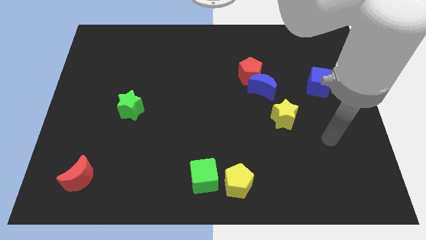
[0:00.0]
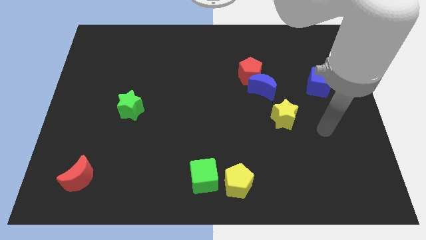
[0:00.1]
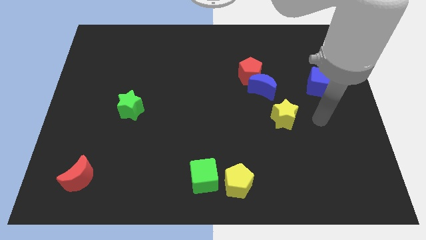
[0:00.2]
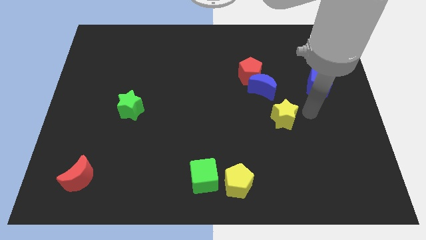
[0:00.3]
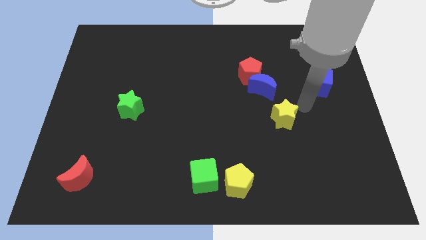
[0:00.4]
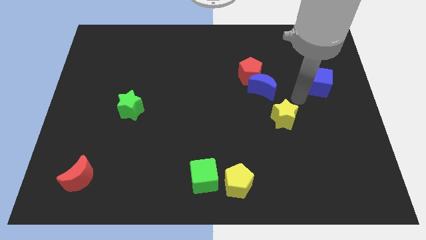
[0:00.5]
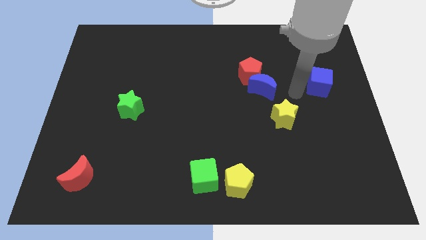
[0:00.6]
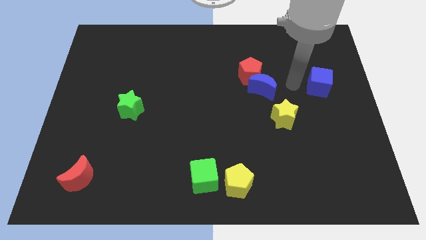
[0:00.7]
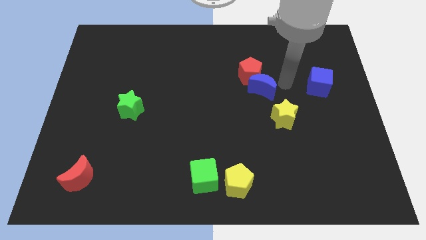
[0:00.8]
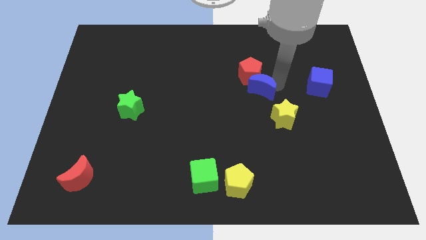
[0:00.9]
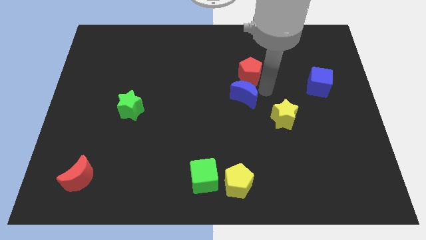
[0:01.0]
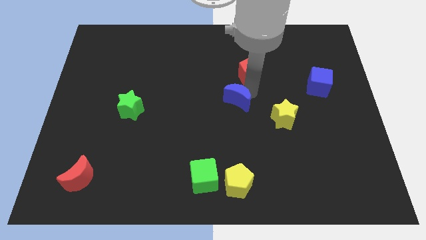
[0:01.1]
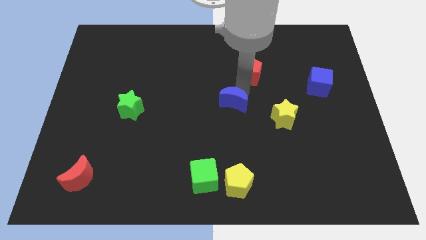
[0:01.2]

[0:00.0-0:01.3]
move the red pentagon away from the blue moon

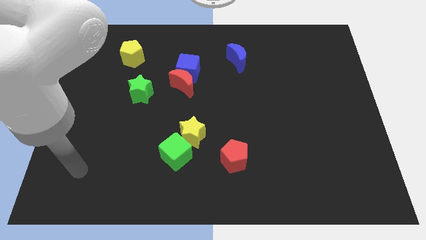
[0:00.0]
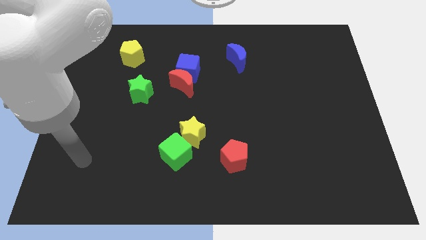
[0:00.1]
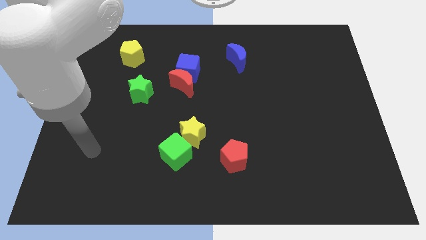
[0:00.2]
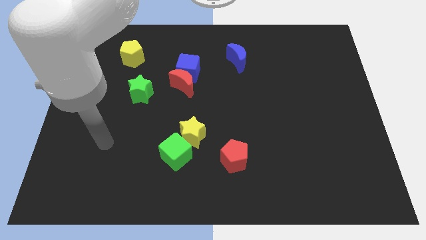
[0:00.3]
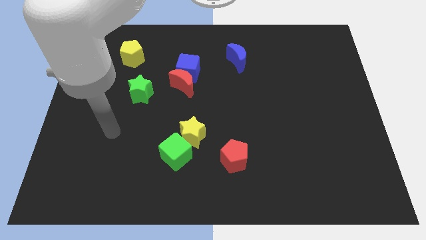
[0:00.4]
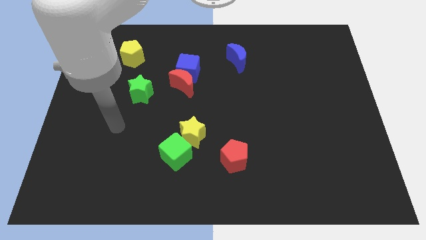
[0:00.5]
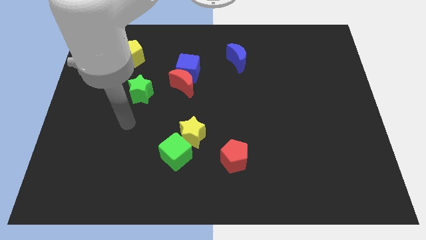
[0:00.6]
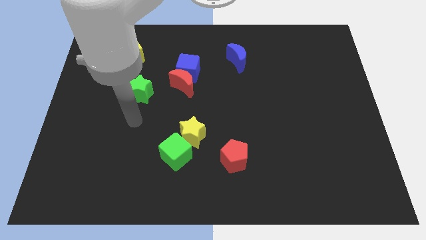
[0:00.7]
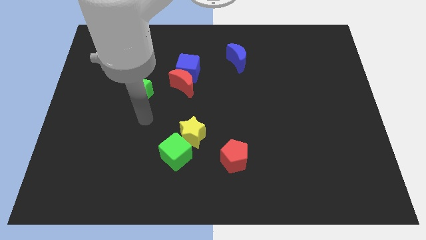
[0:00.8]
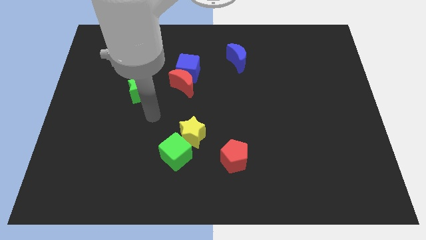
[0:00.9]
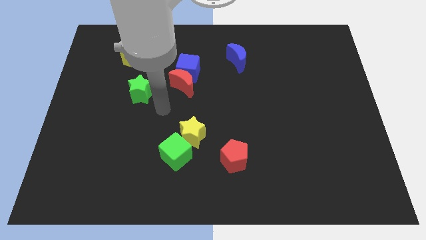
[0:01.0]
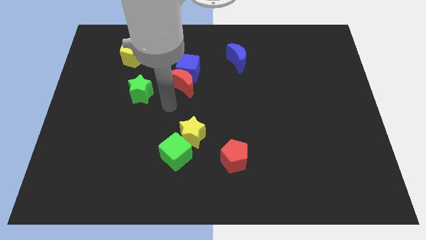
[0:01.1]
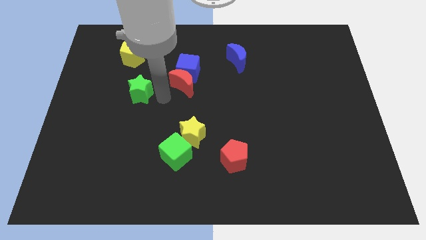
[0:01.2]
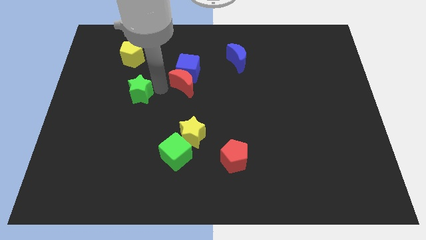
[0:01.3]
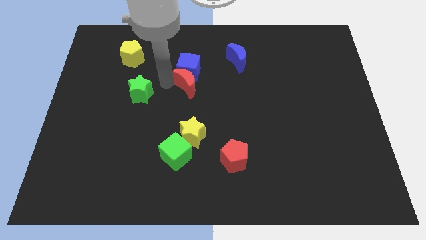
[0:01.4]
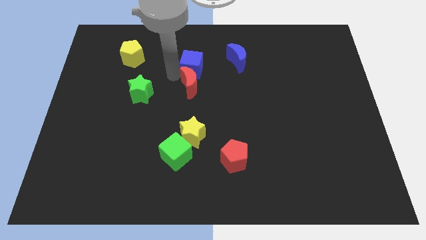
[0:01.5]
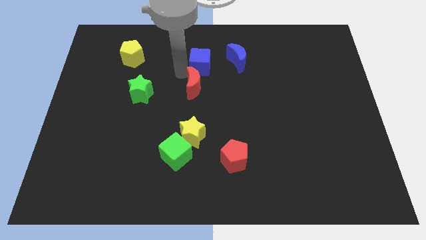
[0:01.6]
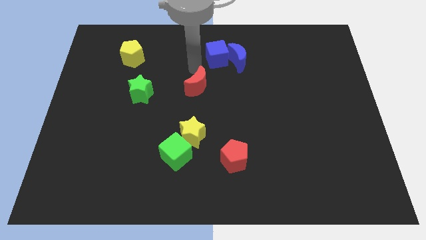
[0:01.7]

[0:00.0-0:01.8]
pull the red moon apart from the blue cube

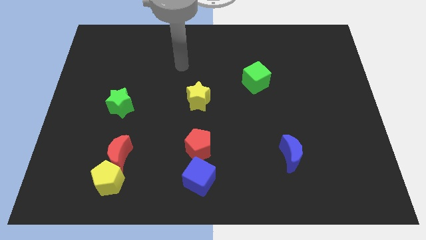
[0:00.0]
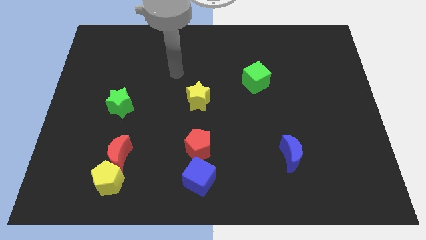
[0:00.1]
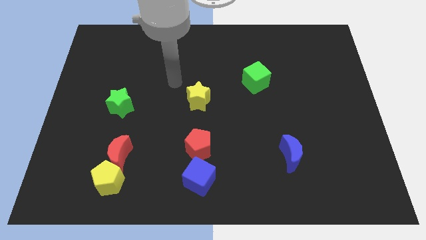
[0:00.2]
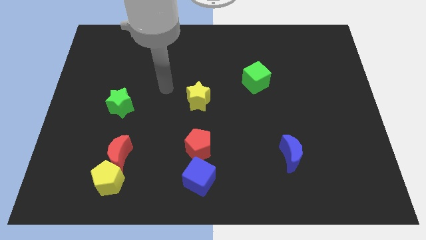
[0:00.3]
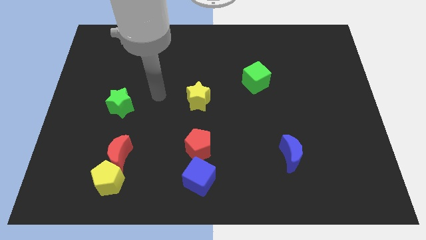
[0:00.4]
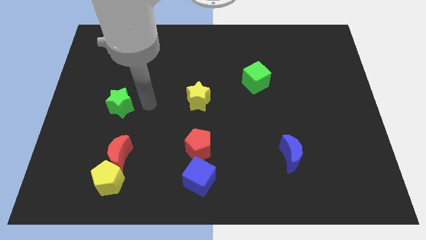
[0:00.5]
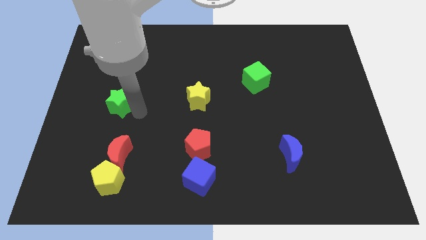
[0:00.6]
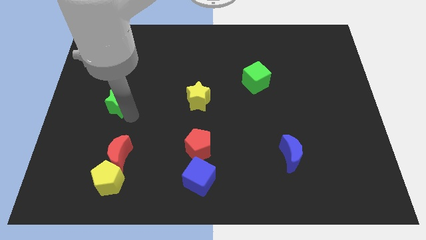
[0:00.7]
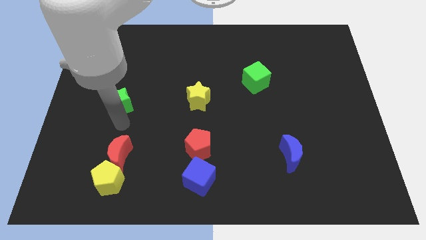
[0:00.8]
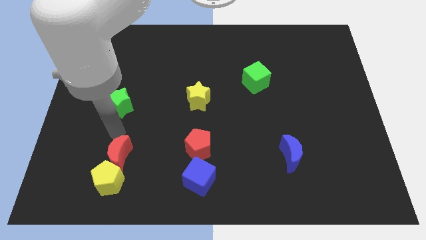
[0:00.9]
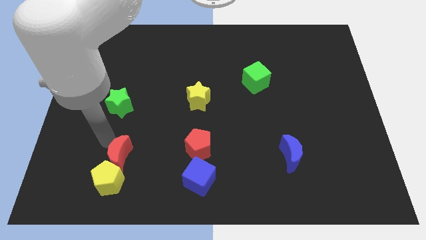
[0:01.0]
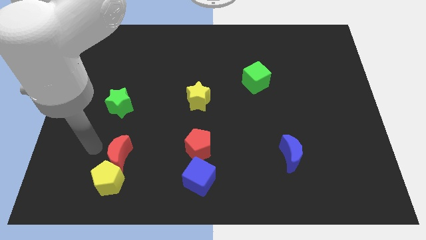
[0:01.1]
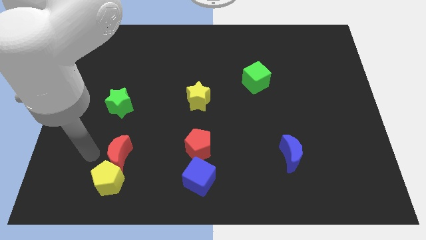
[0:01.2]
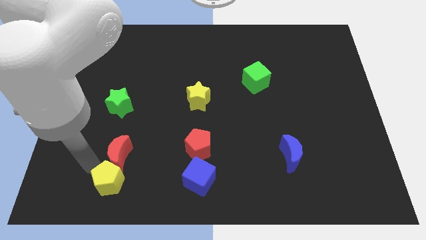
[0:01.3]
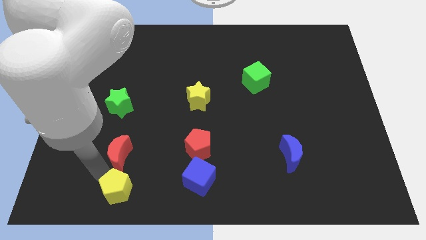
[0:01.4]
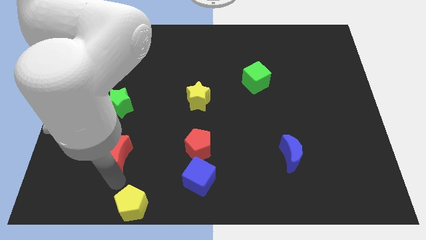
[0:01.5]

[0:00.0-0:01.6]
separate the red moon from the yellow pentagon

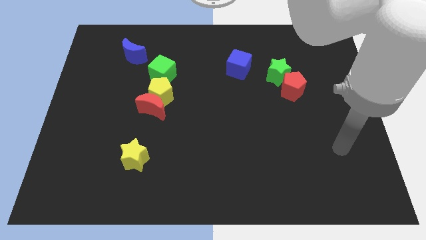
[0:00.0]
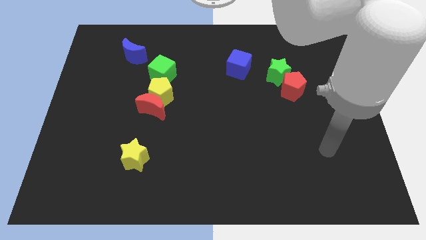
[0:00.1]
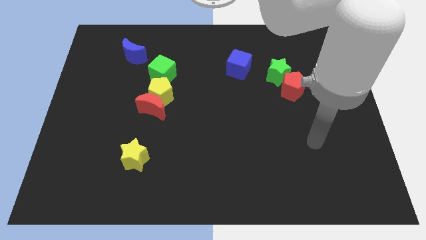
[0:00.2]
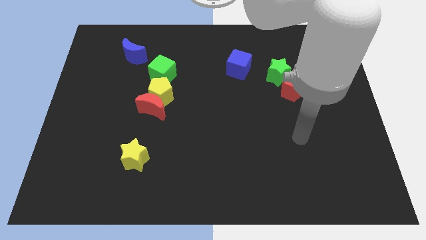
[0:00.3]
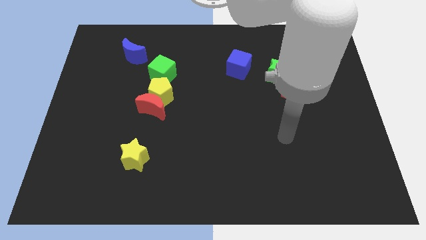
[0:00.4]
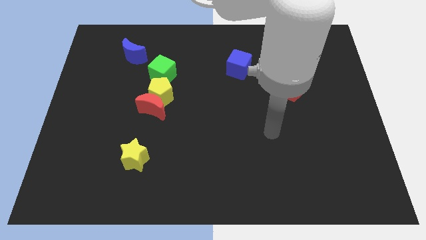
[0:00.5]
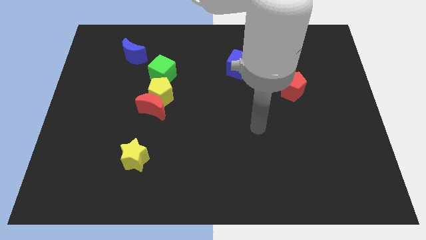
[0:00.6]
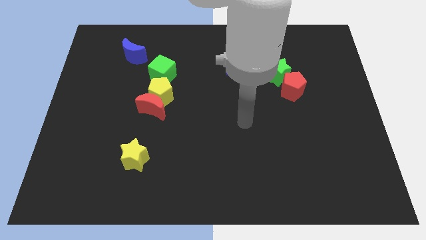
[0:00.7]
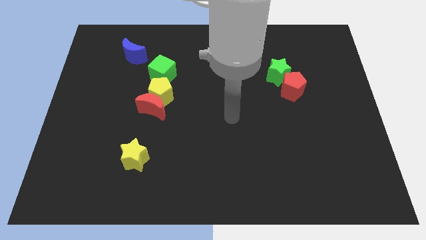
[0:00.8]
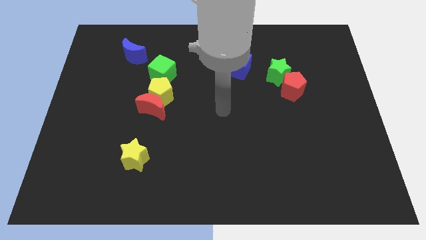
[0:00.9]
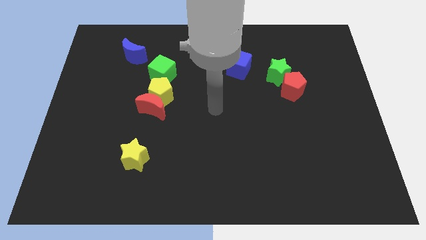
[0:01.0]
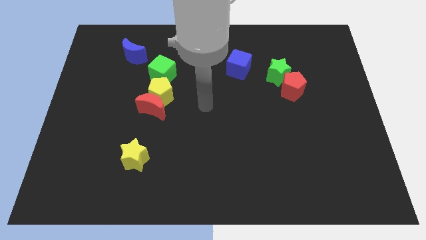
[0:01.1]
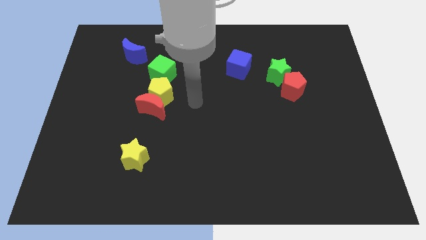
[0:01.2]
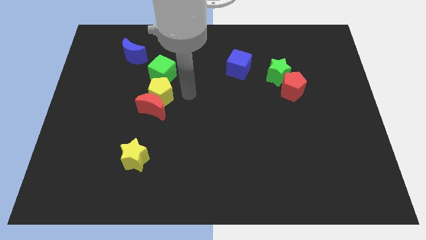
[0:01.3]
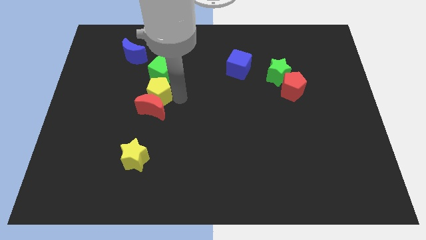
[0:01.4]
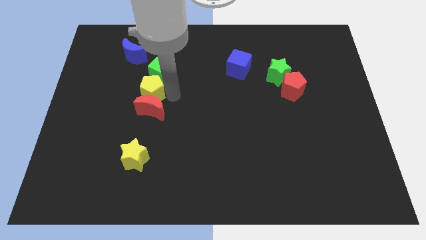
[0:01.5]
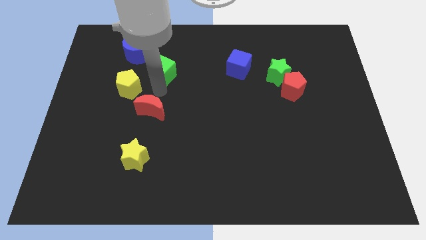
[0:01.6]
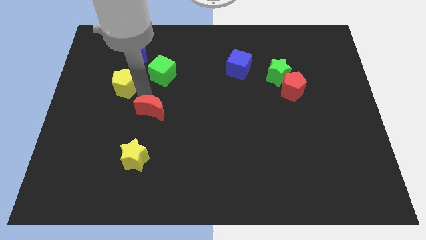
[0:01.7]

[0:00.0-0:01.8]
pull the red moon apart from the yellow pentagon

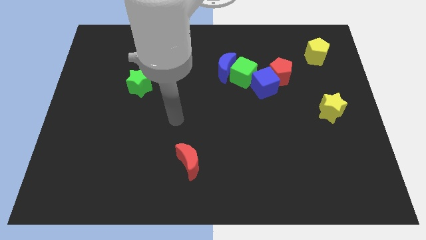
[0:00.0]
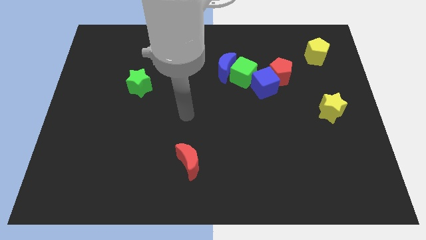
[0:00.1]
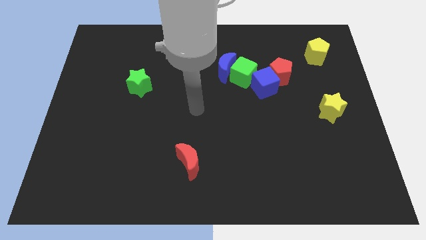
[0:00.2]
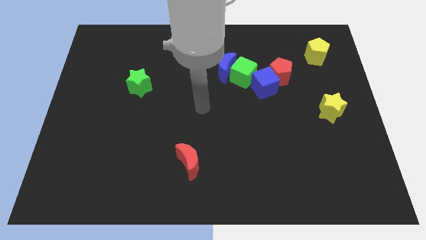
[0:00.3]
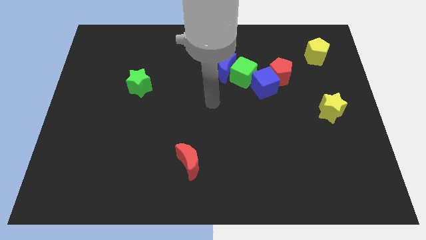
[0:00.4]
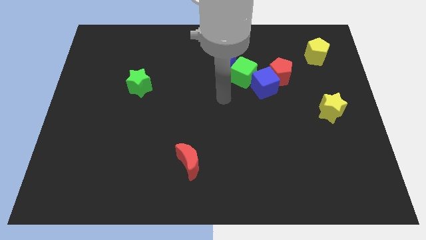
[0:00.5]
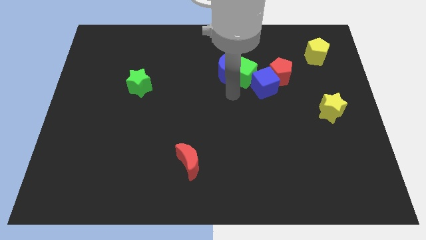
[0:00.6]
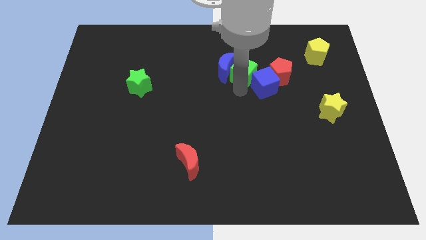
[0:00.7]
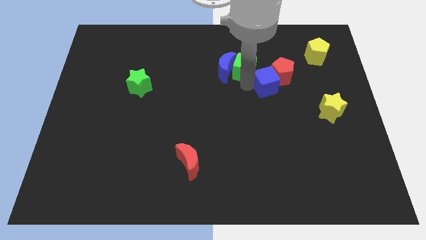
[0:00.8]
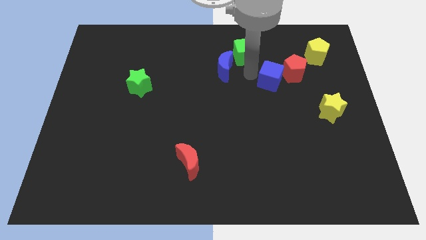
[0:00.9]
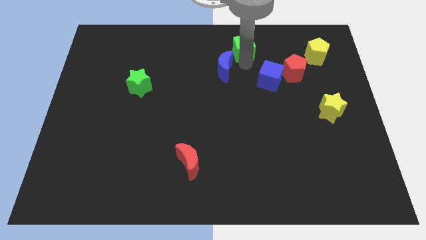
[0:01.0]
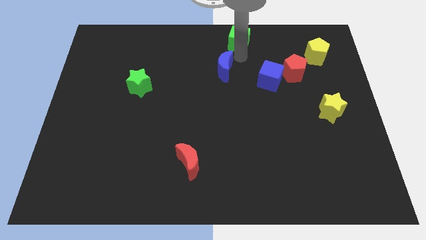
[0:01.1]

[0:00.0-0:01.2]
separate the blue moon from the green cube

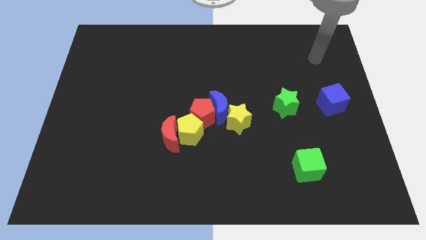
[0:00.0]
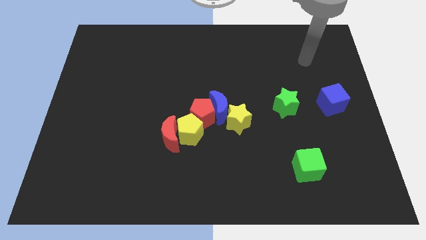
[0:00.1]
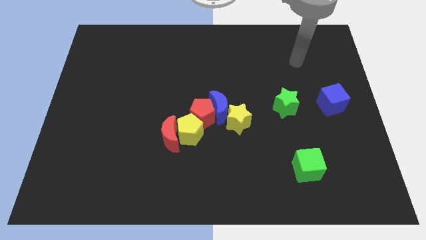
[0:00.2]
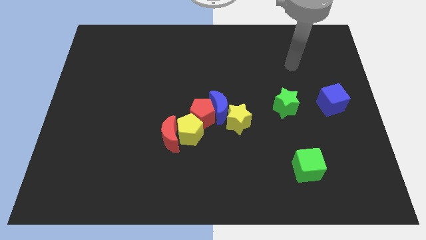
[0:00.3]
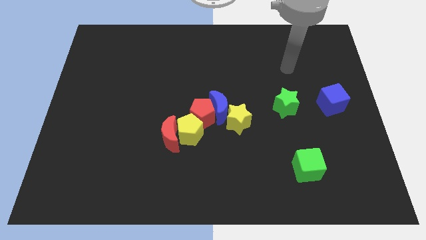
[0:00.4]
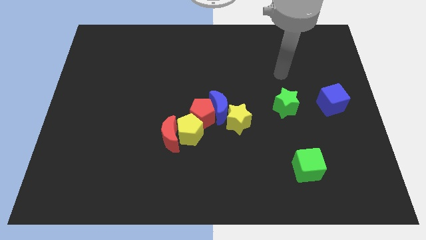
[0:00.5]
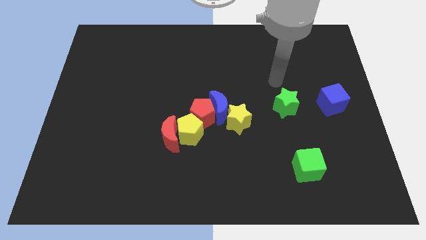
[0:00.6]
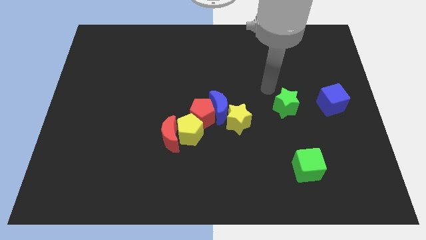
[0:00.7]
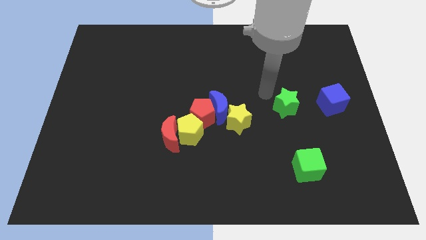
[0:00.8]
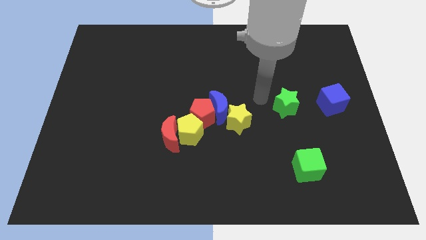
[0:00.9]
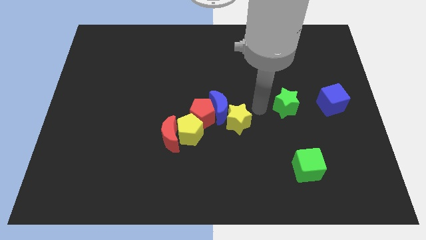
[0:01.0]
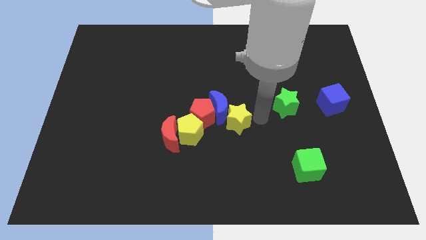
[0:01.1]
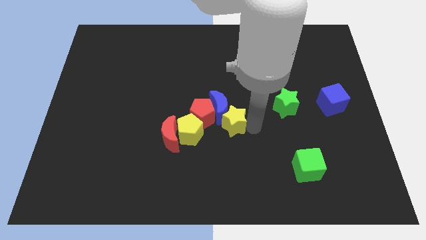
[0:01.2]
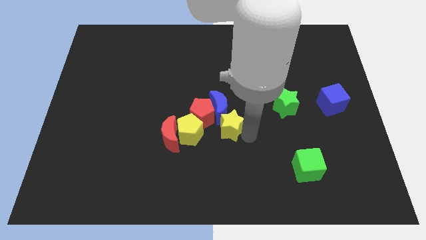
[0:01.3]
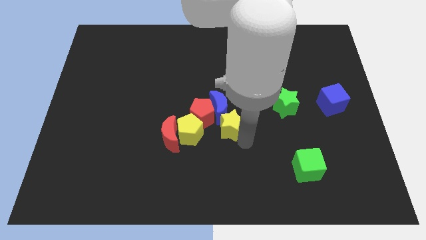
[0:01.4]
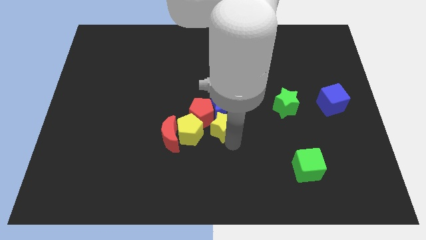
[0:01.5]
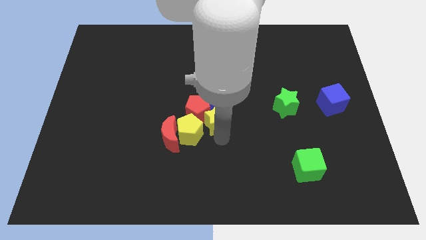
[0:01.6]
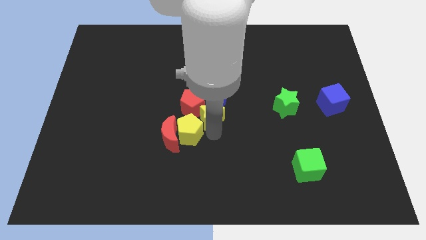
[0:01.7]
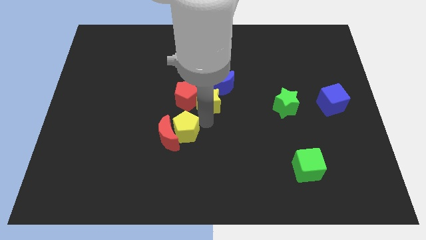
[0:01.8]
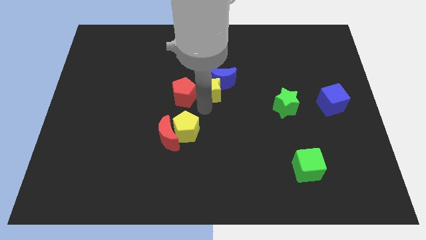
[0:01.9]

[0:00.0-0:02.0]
move the blue moon away from the clump
